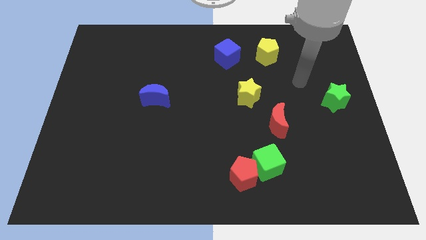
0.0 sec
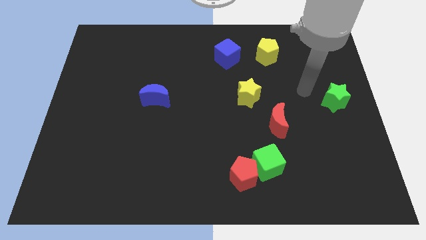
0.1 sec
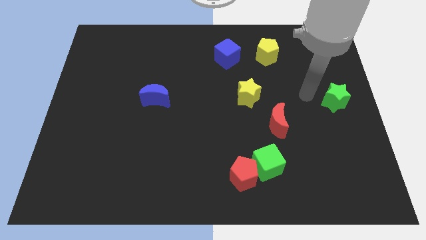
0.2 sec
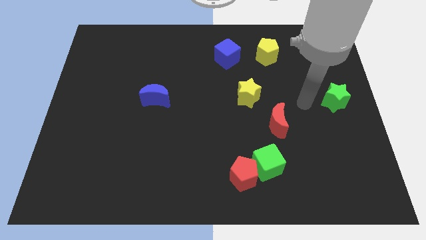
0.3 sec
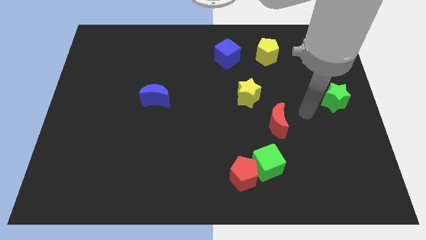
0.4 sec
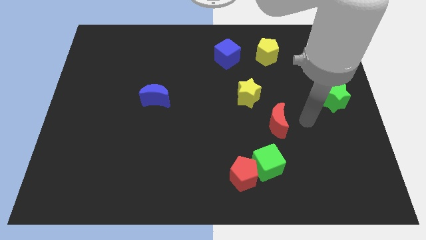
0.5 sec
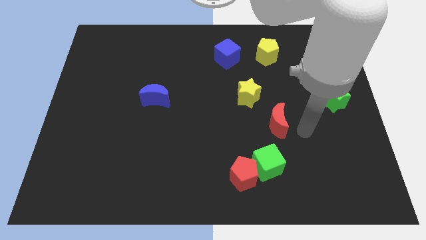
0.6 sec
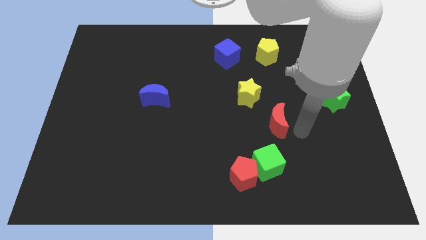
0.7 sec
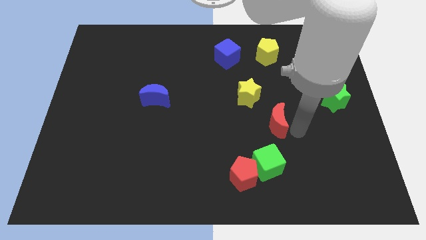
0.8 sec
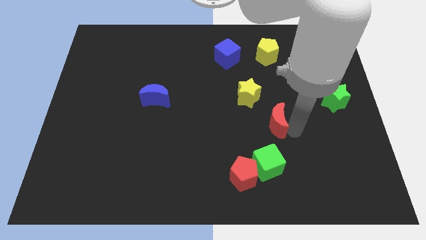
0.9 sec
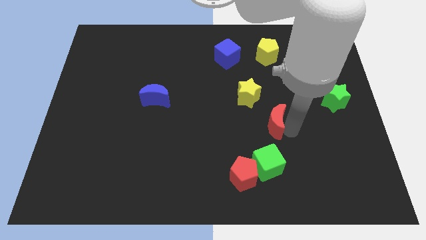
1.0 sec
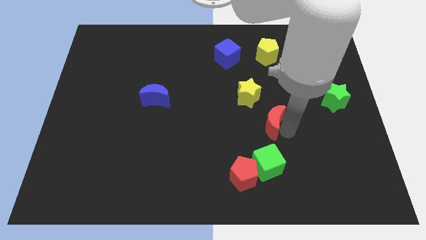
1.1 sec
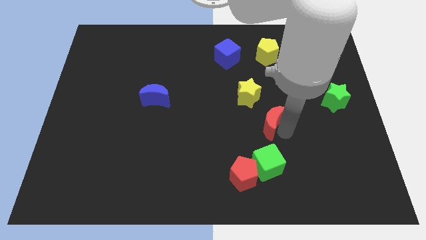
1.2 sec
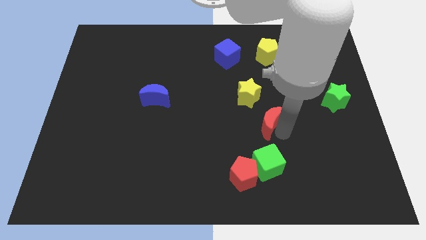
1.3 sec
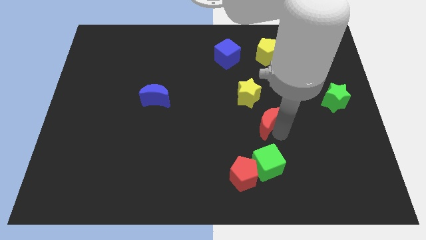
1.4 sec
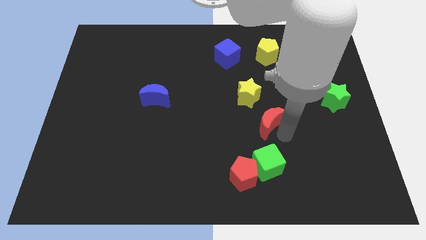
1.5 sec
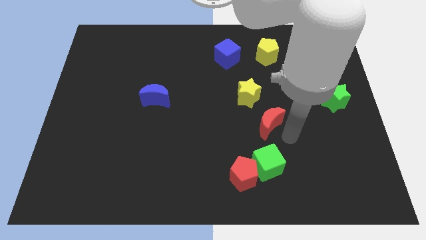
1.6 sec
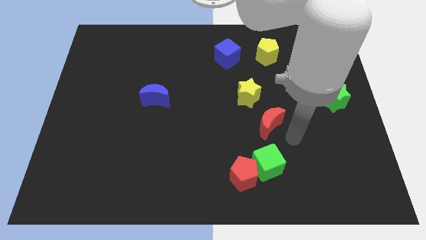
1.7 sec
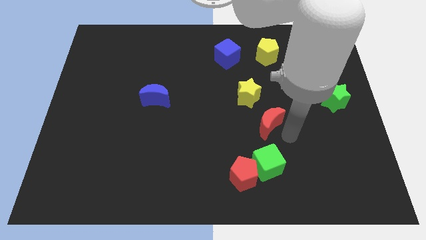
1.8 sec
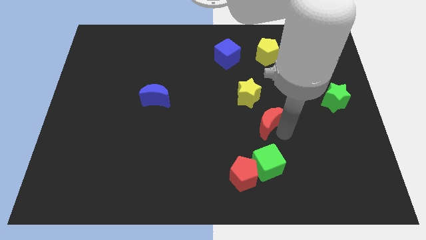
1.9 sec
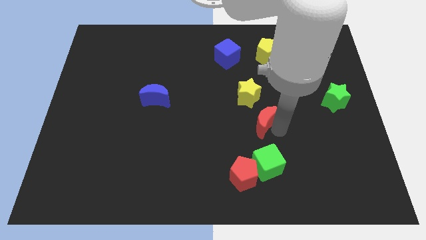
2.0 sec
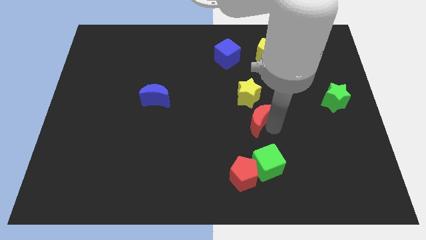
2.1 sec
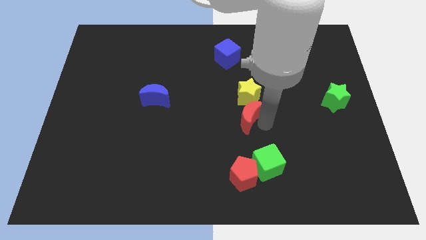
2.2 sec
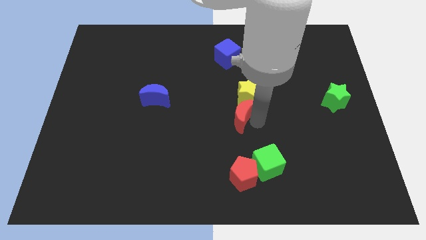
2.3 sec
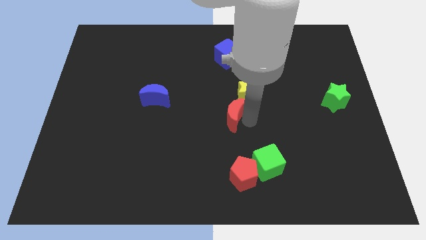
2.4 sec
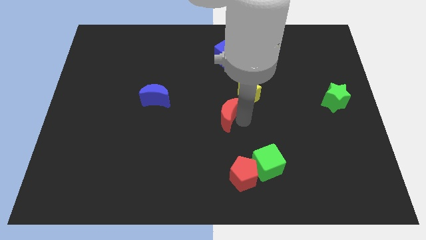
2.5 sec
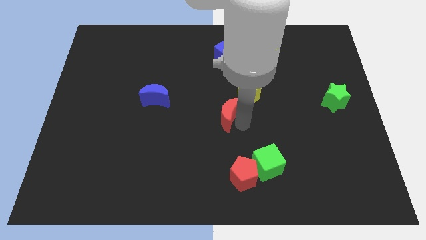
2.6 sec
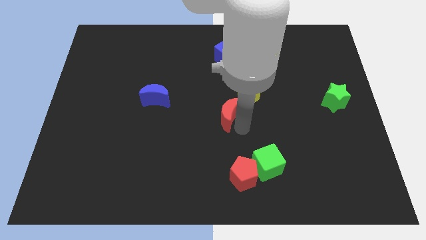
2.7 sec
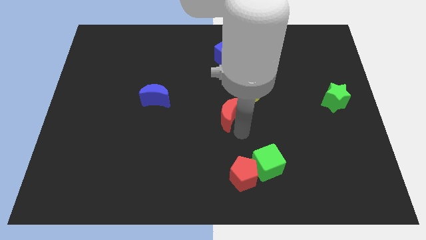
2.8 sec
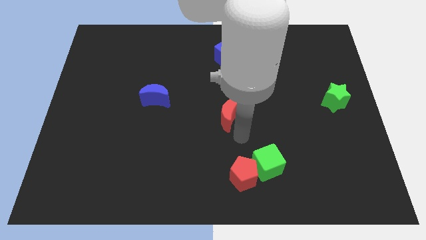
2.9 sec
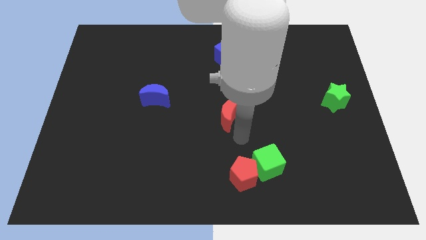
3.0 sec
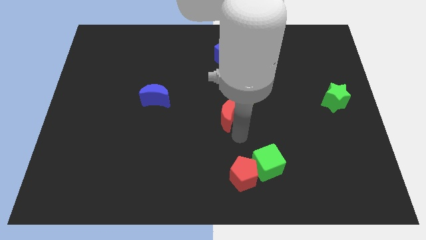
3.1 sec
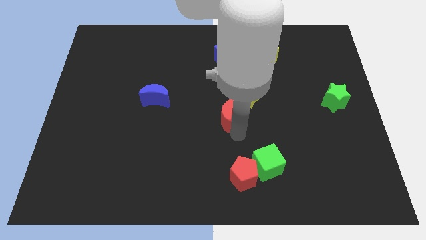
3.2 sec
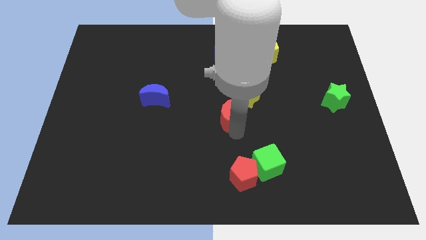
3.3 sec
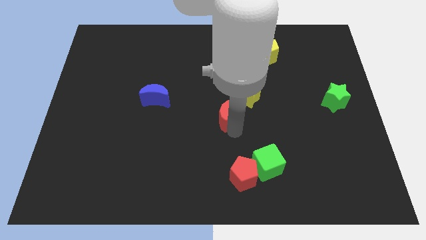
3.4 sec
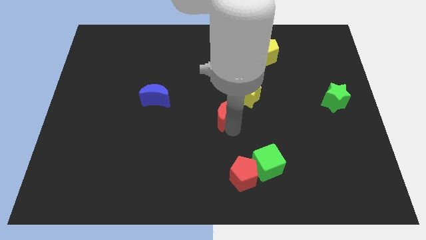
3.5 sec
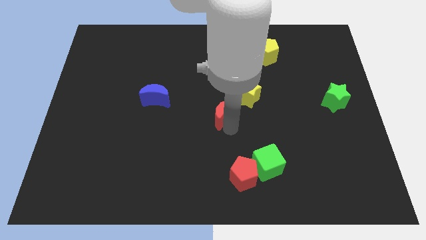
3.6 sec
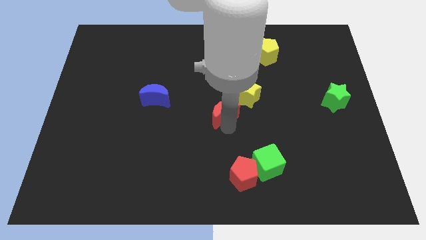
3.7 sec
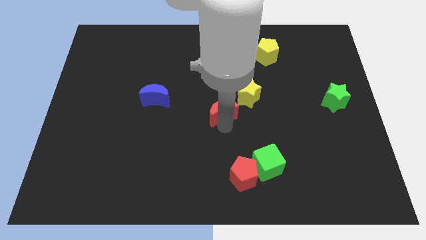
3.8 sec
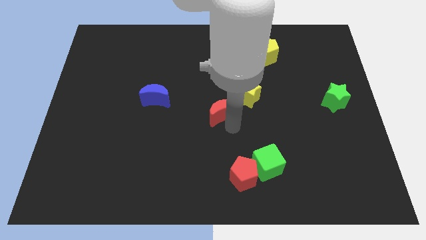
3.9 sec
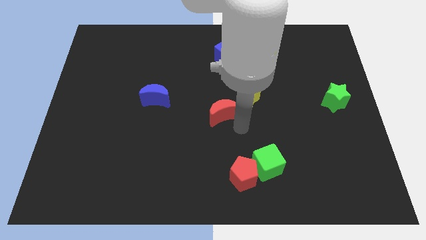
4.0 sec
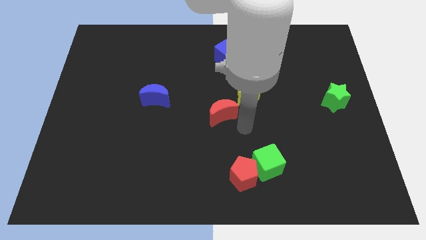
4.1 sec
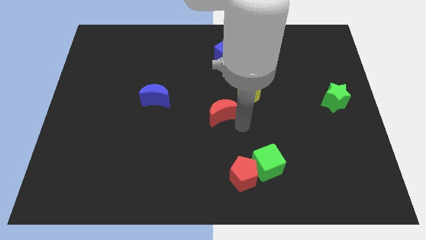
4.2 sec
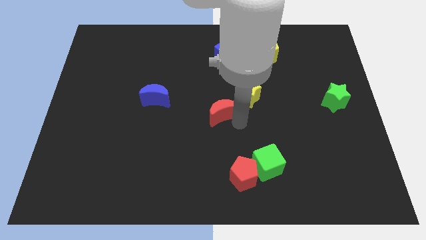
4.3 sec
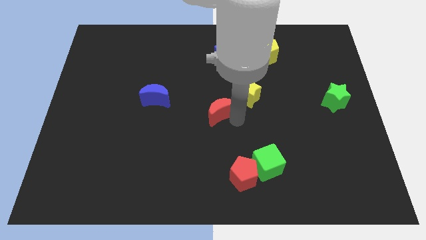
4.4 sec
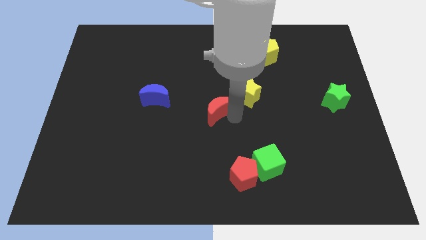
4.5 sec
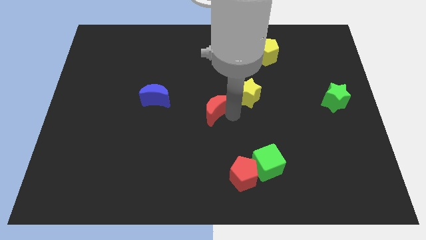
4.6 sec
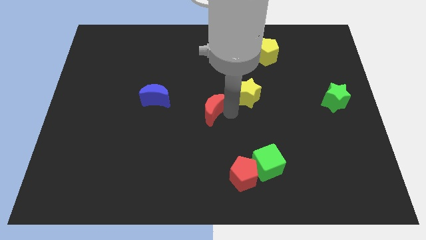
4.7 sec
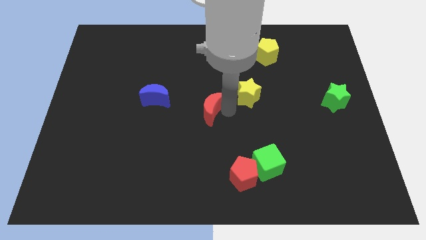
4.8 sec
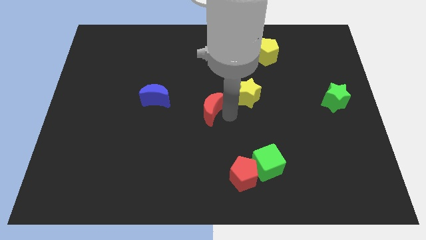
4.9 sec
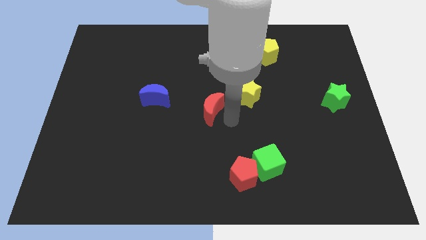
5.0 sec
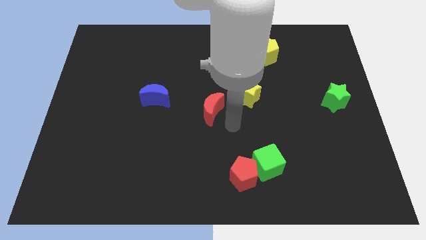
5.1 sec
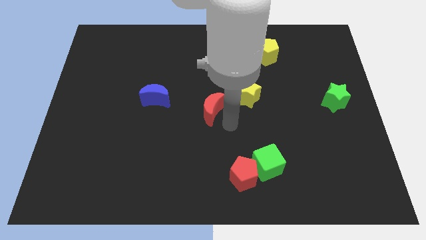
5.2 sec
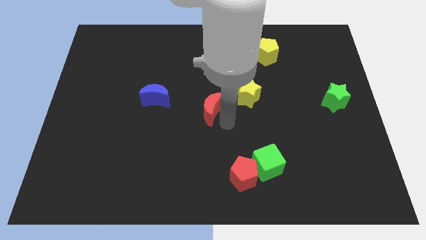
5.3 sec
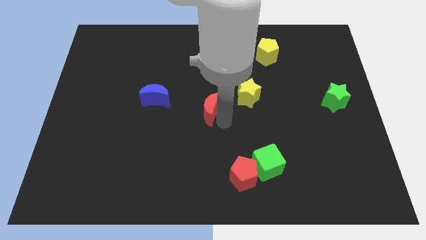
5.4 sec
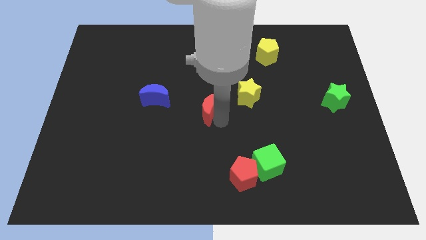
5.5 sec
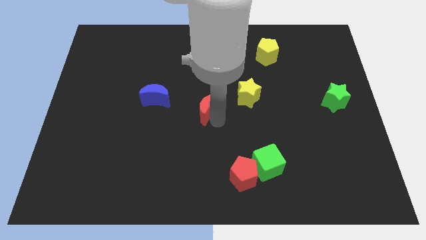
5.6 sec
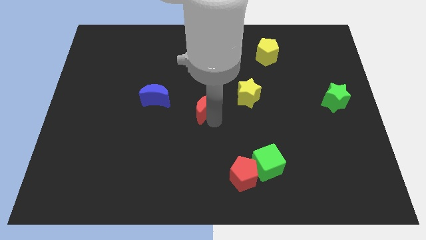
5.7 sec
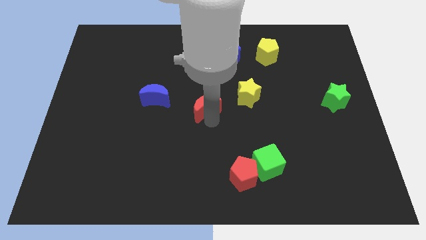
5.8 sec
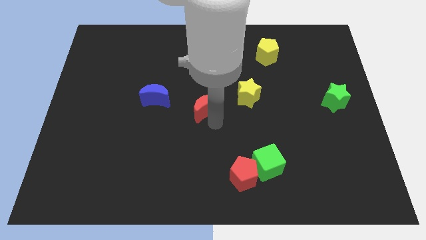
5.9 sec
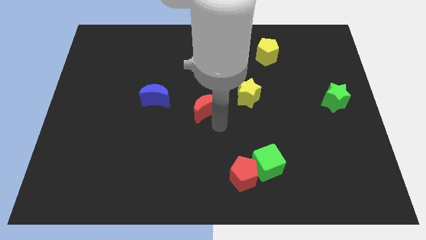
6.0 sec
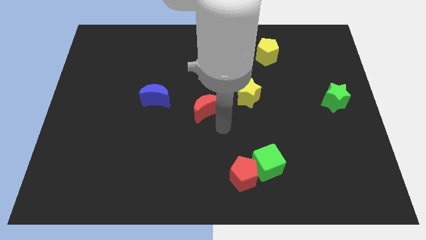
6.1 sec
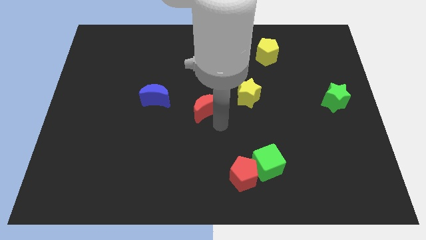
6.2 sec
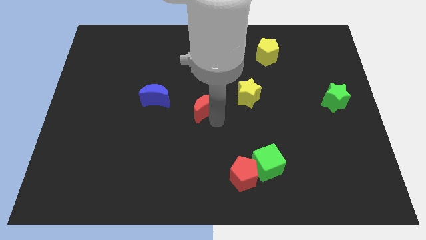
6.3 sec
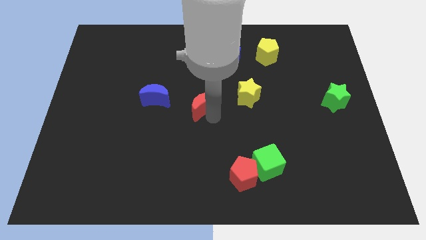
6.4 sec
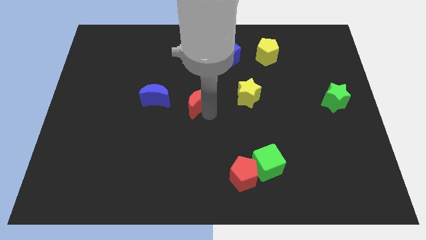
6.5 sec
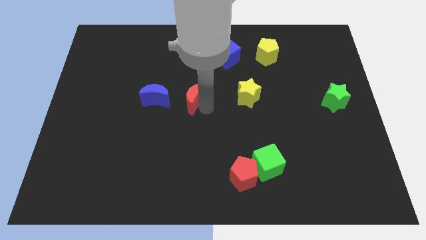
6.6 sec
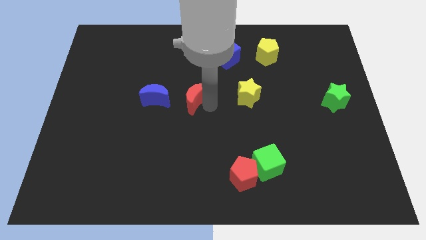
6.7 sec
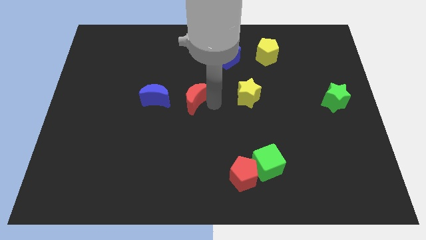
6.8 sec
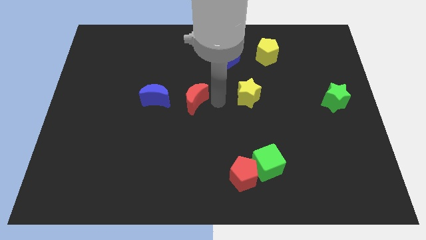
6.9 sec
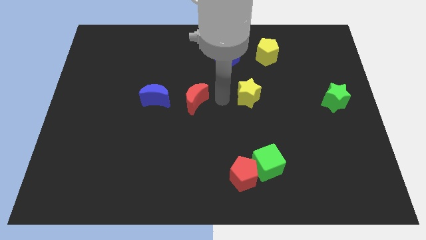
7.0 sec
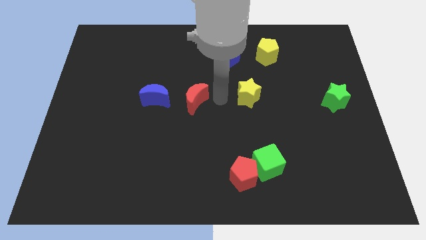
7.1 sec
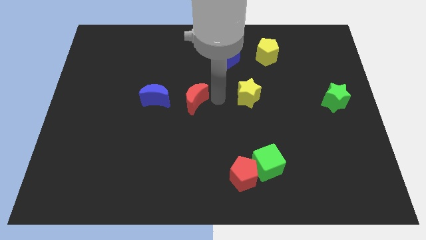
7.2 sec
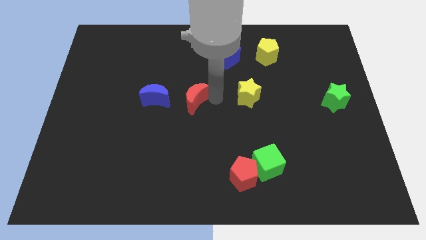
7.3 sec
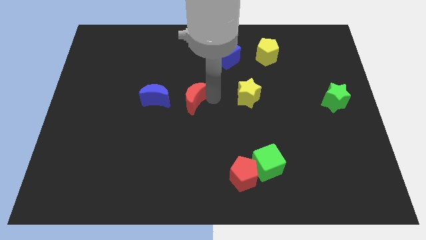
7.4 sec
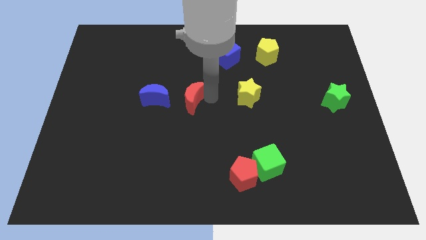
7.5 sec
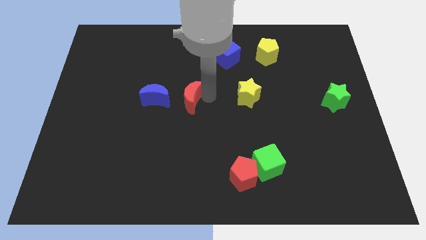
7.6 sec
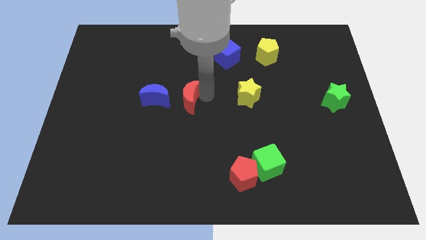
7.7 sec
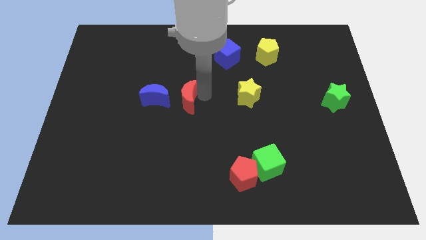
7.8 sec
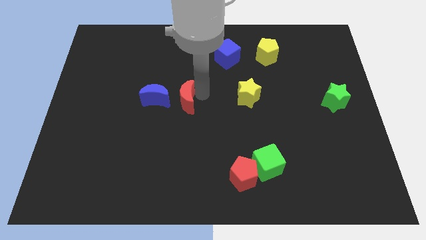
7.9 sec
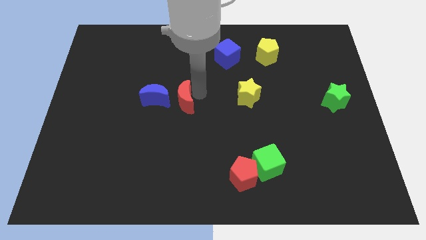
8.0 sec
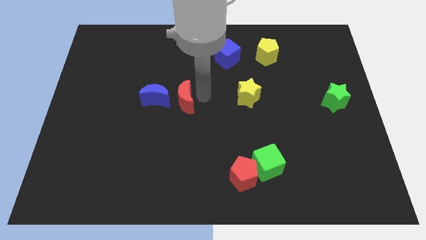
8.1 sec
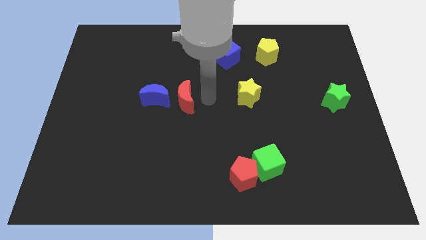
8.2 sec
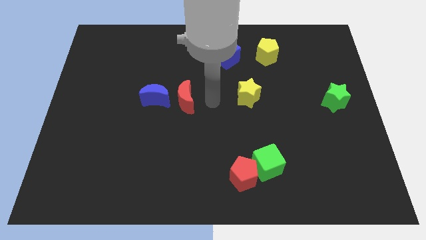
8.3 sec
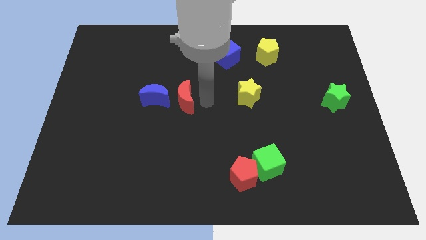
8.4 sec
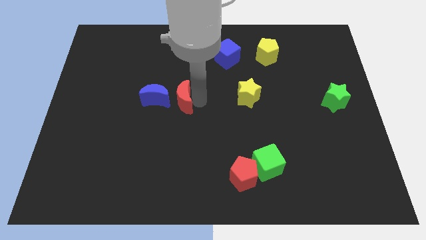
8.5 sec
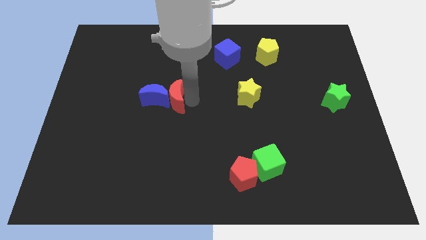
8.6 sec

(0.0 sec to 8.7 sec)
move the red moon towards the blue moon
